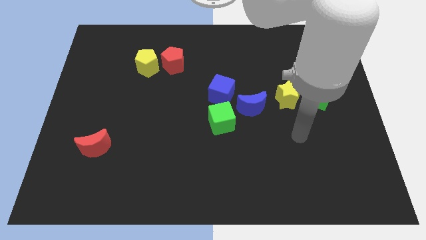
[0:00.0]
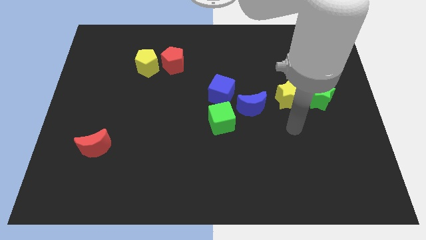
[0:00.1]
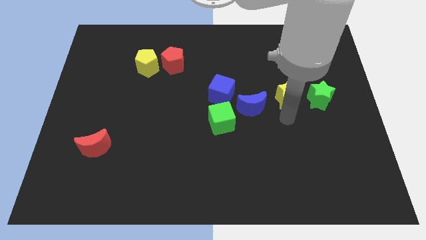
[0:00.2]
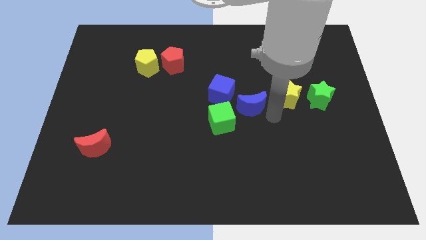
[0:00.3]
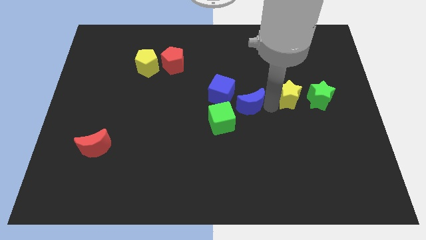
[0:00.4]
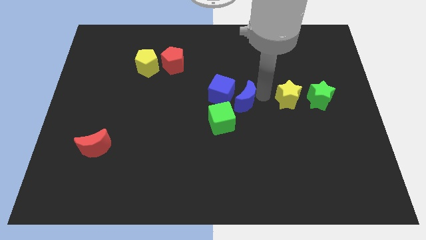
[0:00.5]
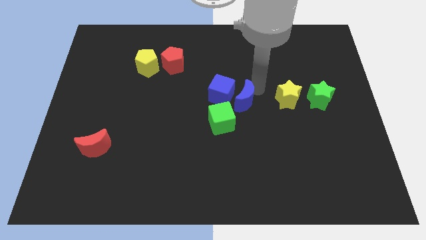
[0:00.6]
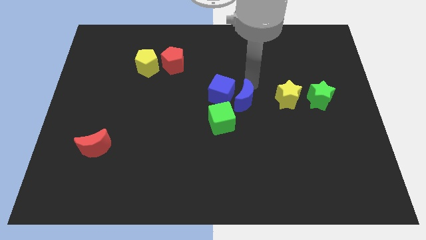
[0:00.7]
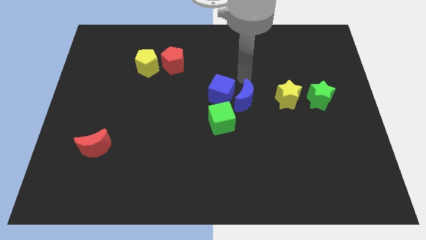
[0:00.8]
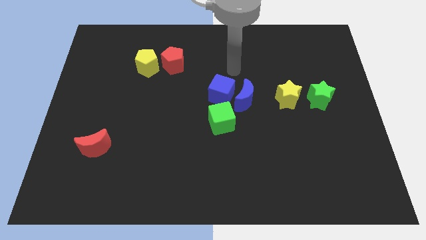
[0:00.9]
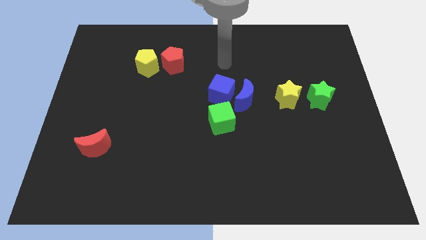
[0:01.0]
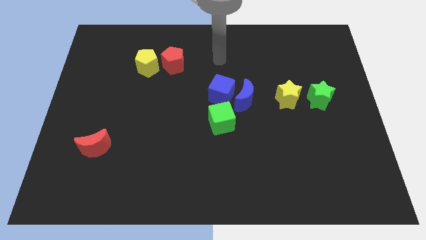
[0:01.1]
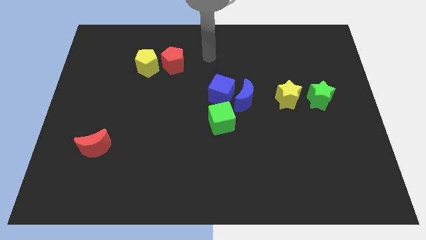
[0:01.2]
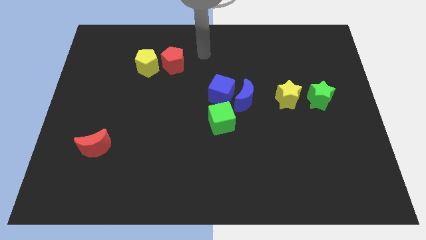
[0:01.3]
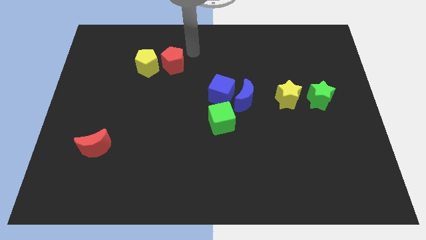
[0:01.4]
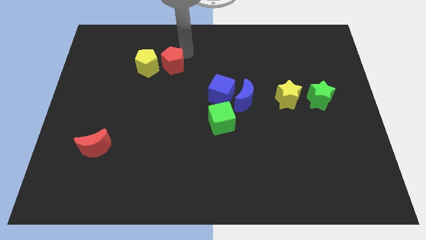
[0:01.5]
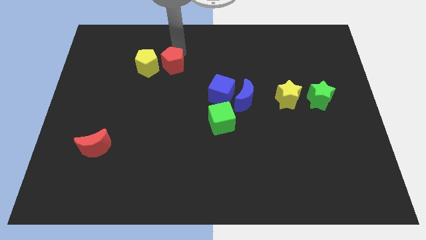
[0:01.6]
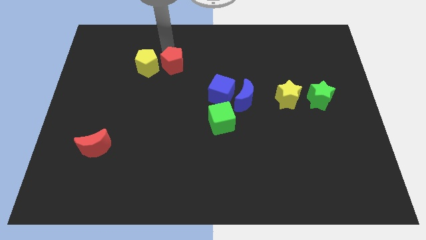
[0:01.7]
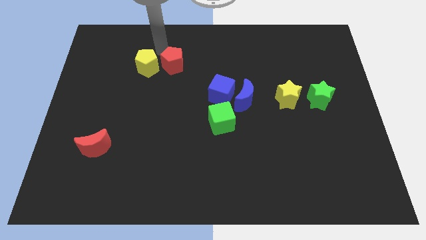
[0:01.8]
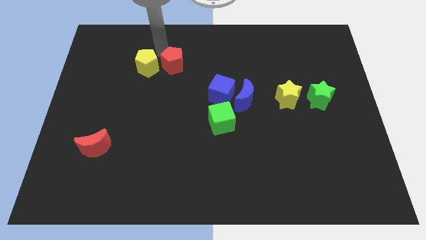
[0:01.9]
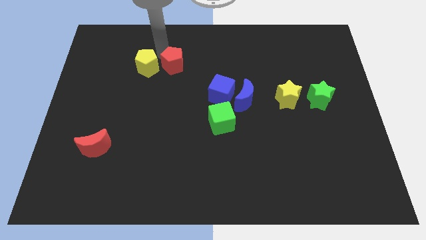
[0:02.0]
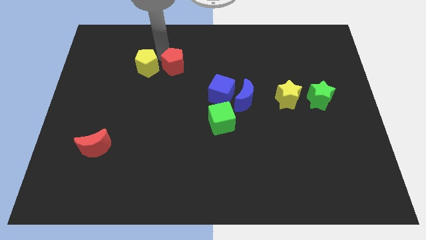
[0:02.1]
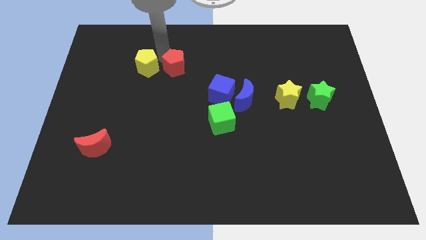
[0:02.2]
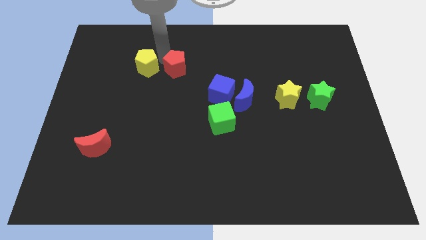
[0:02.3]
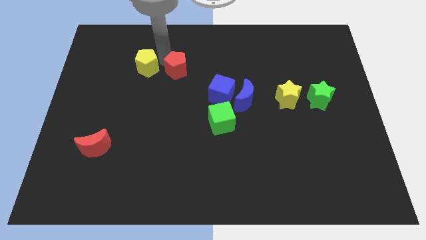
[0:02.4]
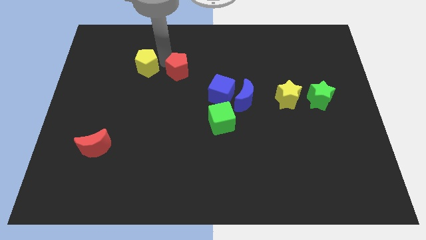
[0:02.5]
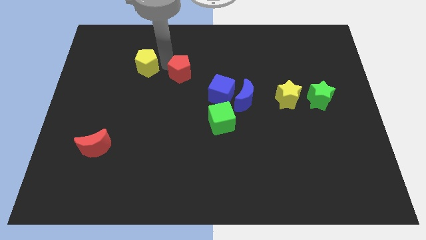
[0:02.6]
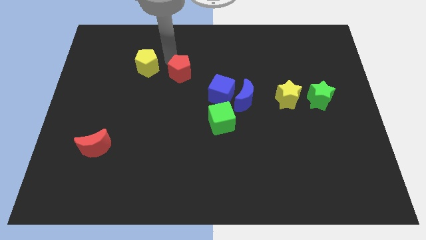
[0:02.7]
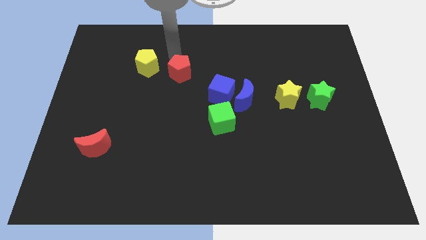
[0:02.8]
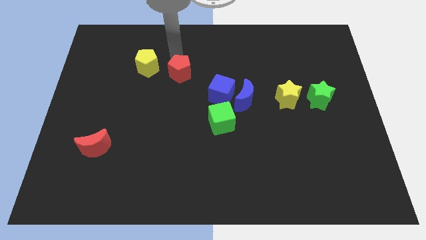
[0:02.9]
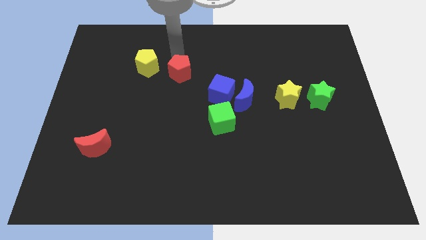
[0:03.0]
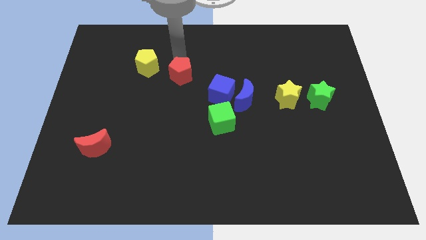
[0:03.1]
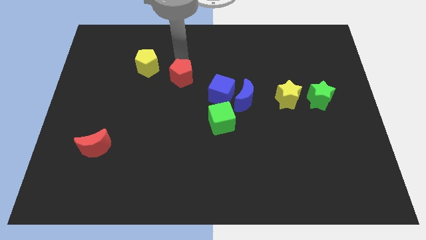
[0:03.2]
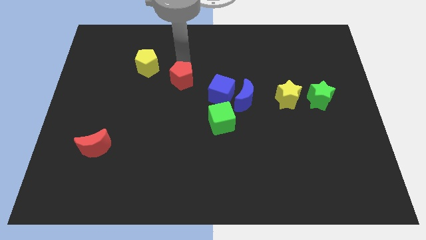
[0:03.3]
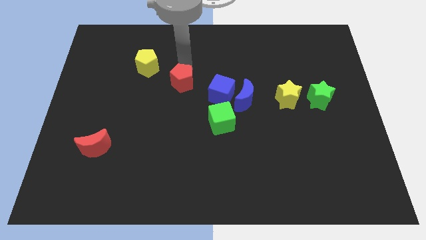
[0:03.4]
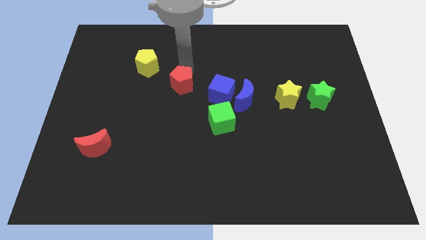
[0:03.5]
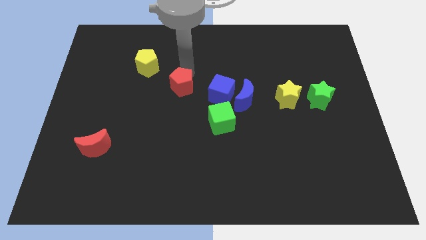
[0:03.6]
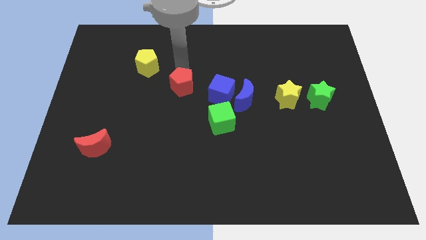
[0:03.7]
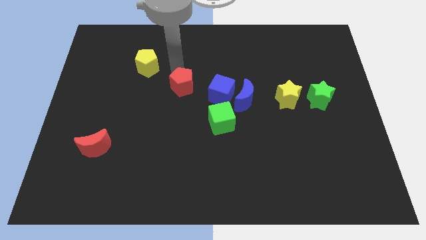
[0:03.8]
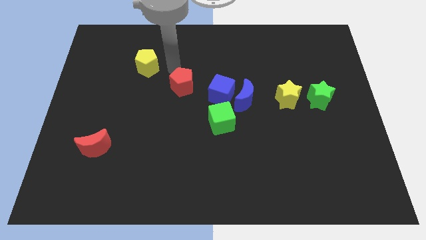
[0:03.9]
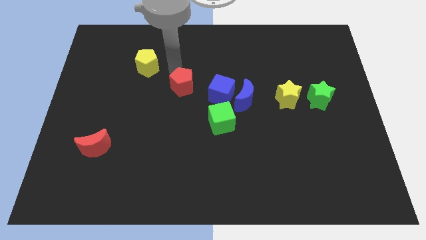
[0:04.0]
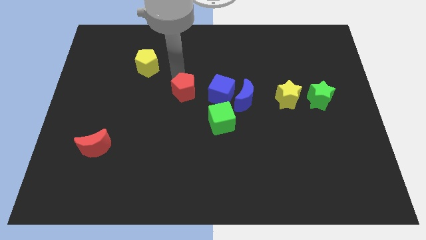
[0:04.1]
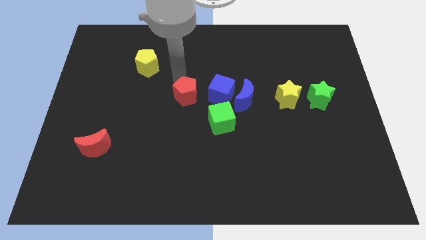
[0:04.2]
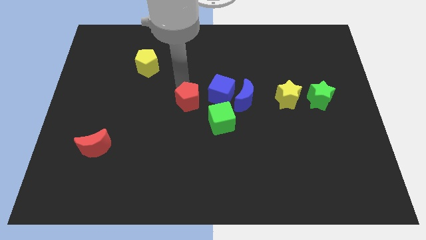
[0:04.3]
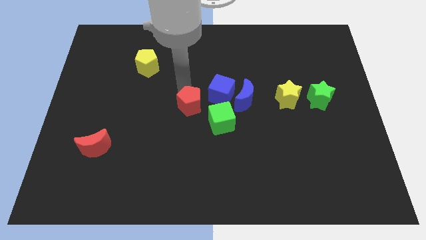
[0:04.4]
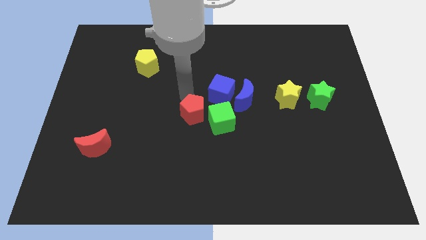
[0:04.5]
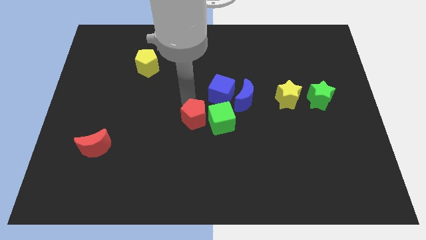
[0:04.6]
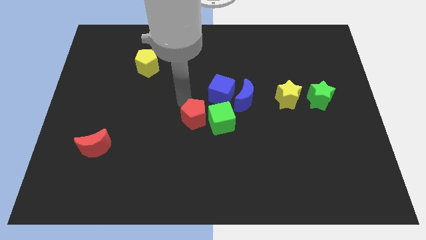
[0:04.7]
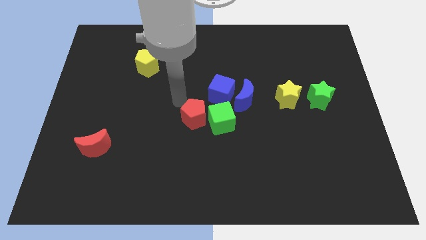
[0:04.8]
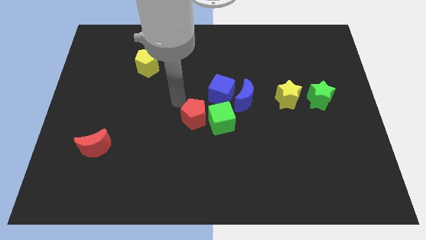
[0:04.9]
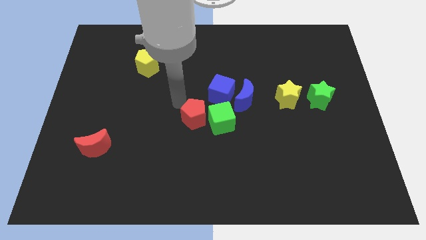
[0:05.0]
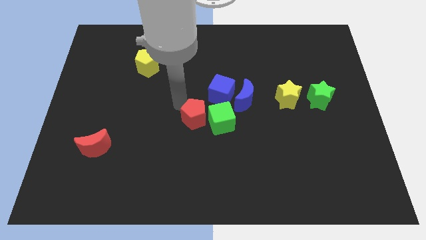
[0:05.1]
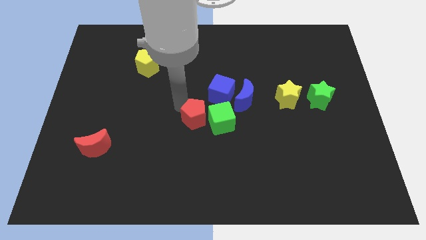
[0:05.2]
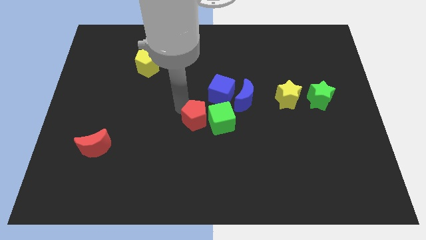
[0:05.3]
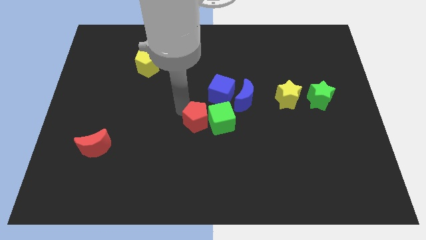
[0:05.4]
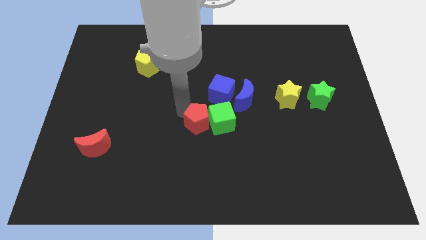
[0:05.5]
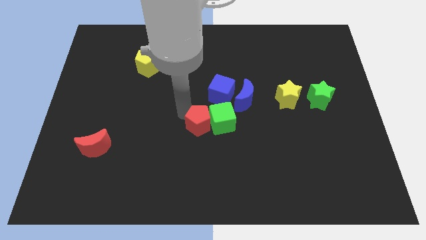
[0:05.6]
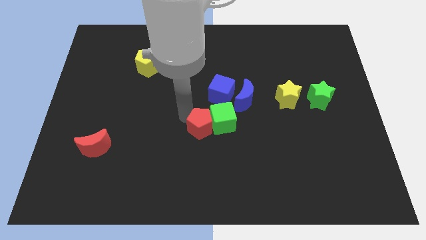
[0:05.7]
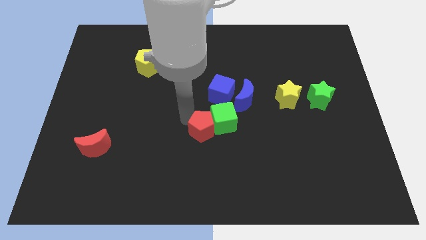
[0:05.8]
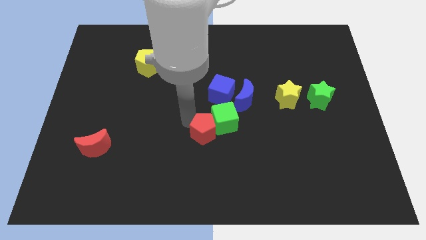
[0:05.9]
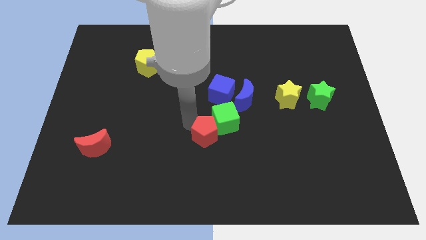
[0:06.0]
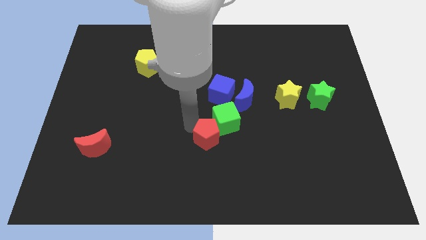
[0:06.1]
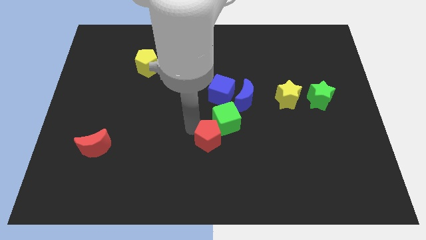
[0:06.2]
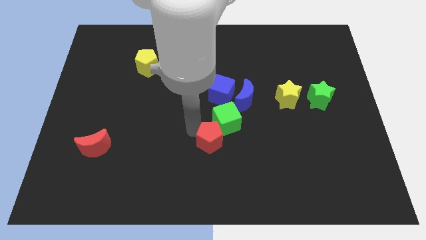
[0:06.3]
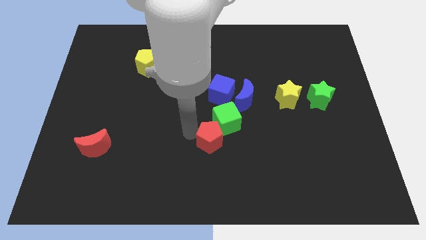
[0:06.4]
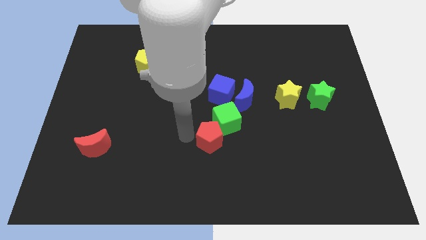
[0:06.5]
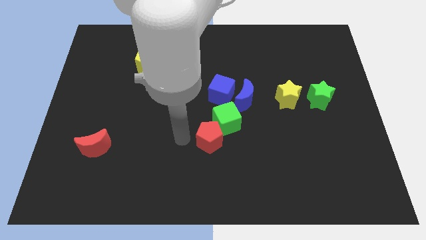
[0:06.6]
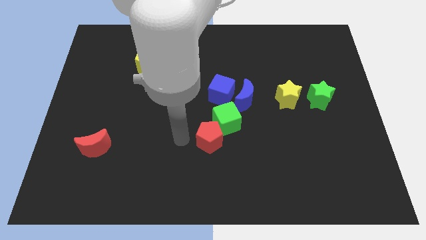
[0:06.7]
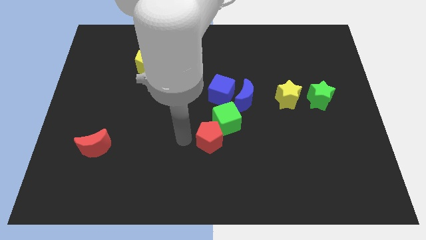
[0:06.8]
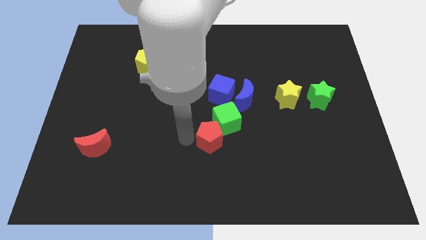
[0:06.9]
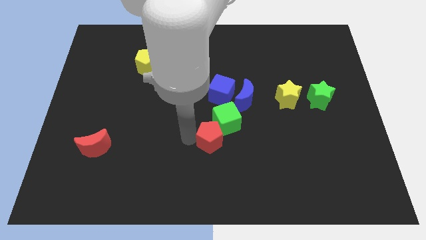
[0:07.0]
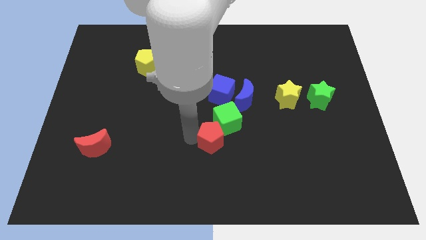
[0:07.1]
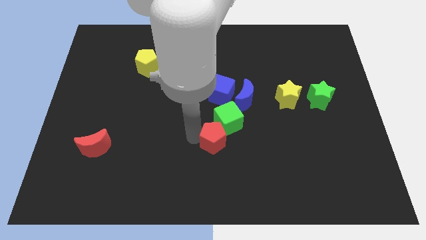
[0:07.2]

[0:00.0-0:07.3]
move the red pentagon down and then right

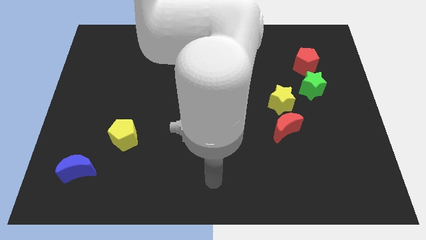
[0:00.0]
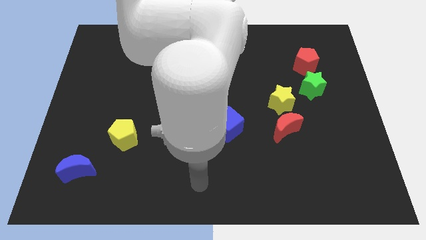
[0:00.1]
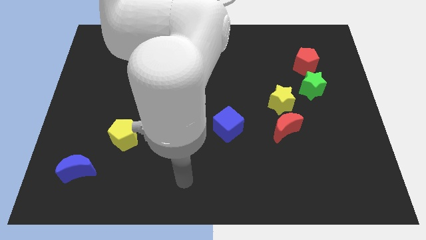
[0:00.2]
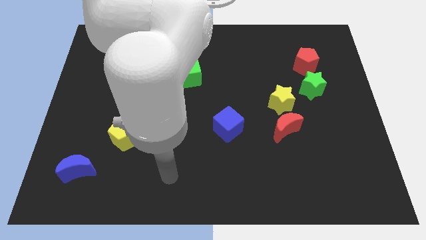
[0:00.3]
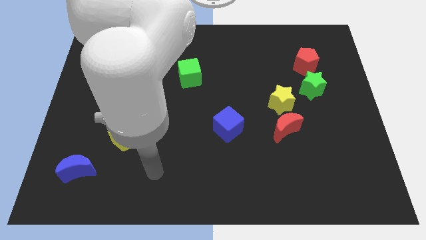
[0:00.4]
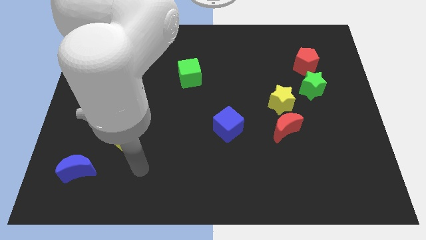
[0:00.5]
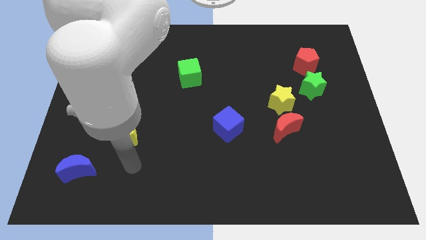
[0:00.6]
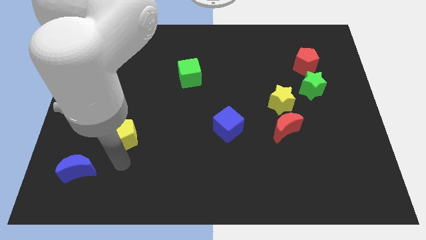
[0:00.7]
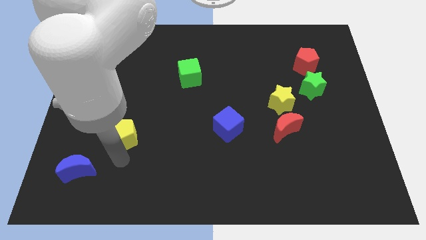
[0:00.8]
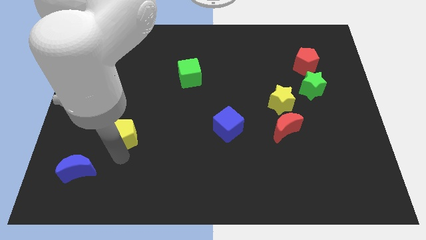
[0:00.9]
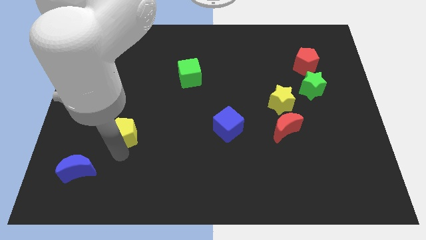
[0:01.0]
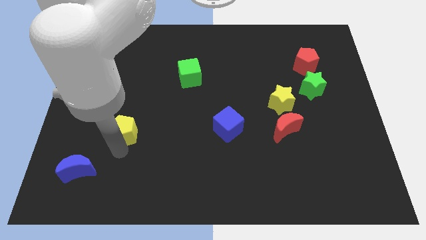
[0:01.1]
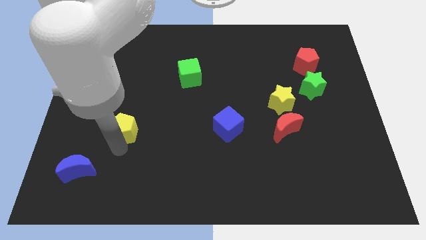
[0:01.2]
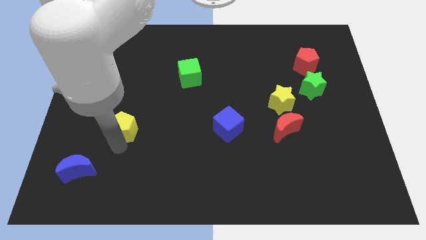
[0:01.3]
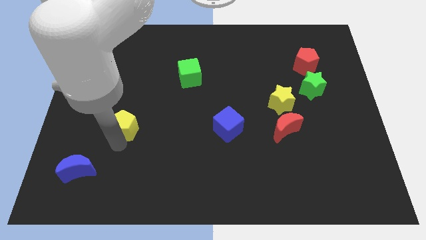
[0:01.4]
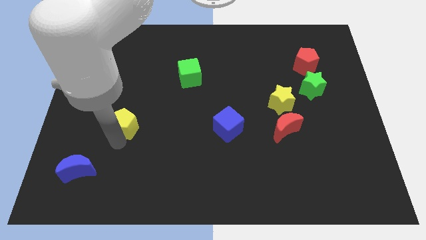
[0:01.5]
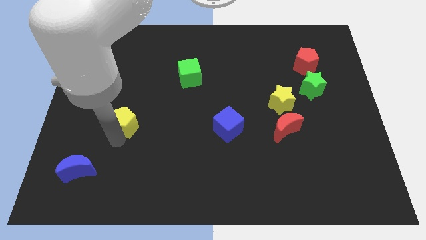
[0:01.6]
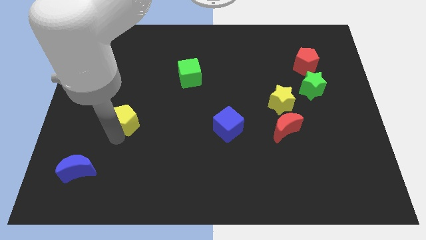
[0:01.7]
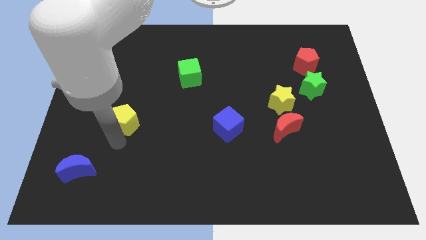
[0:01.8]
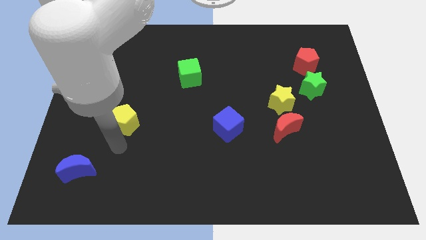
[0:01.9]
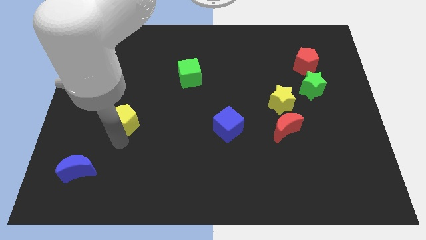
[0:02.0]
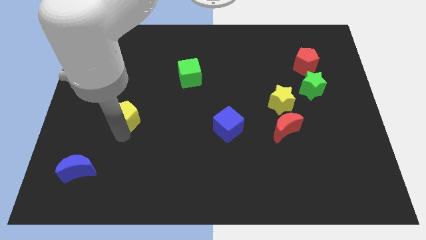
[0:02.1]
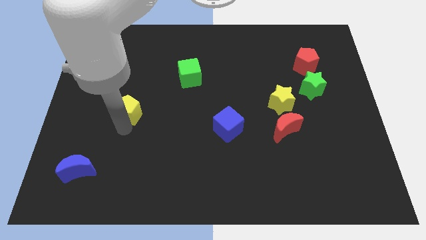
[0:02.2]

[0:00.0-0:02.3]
move the yellow pentagon a little bit up
